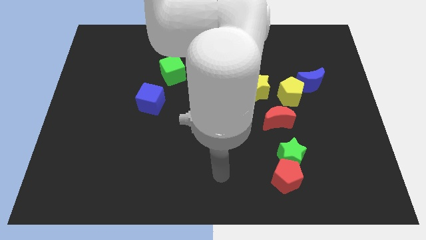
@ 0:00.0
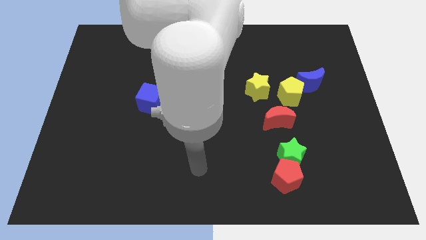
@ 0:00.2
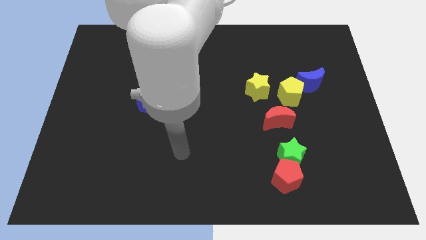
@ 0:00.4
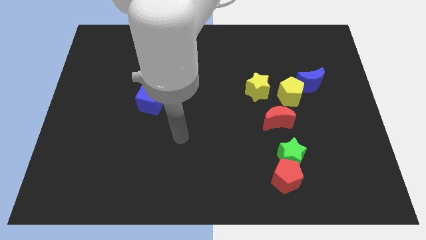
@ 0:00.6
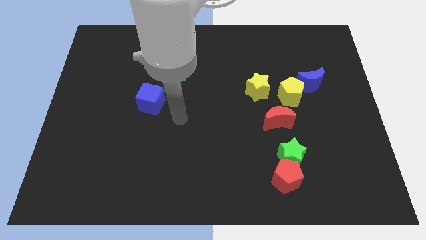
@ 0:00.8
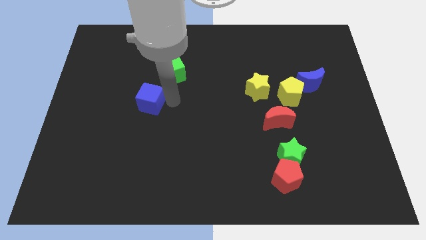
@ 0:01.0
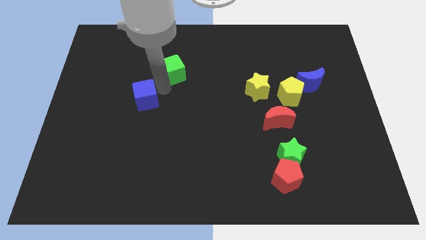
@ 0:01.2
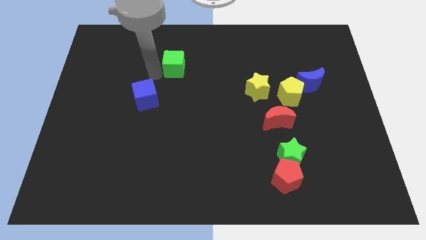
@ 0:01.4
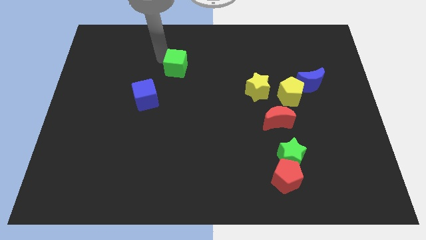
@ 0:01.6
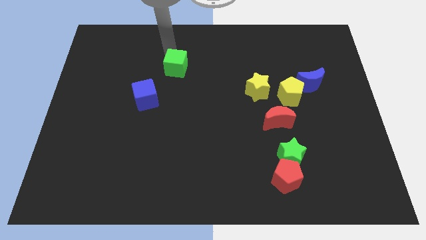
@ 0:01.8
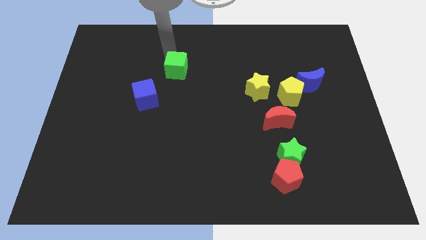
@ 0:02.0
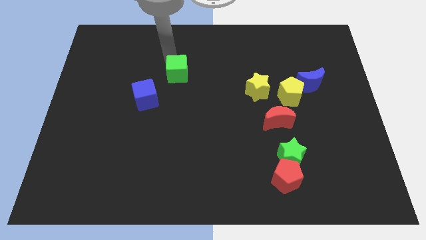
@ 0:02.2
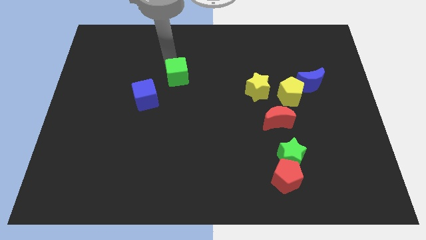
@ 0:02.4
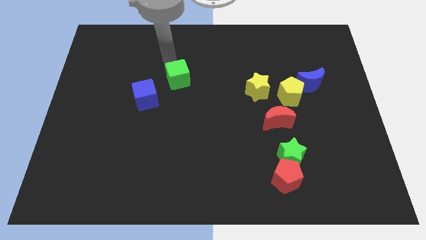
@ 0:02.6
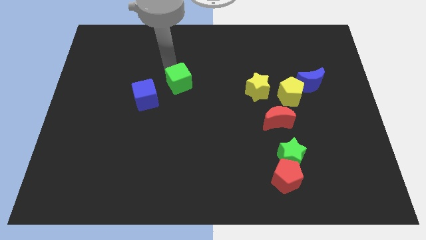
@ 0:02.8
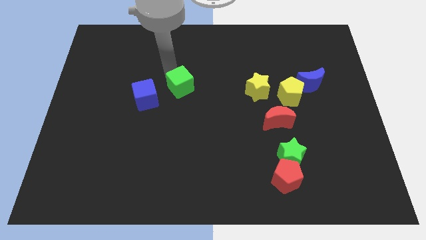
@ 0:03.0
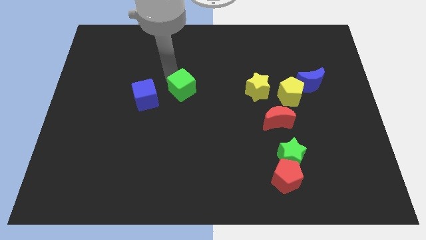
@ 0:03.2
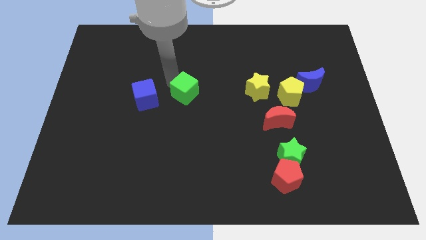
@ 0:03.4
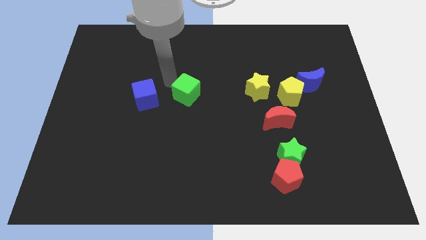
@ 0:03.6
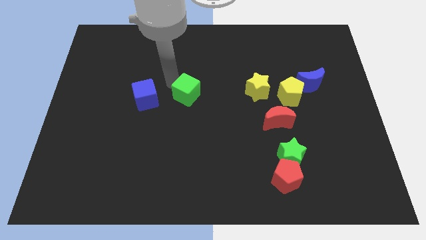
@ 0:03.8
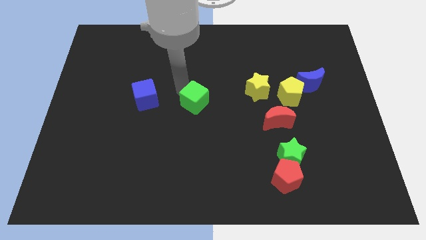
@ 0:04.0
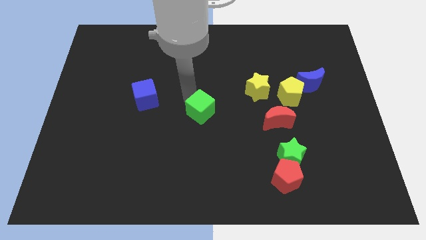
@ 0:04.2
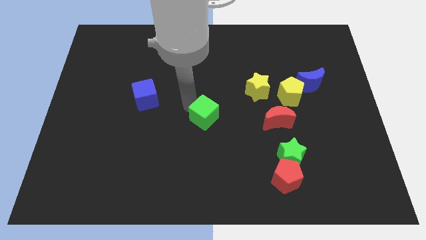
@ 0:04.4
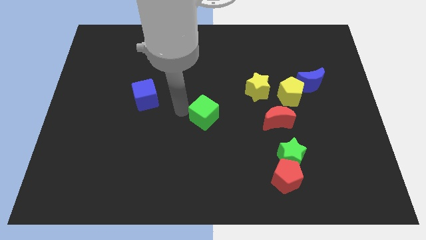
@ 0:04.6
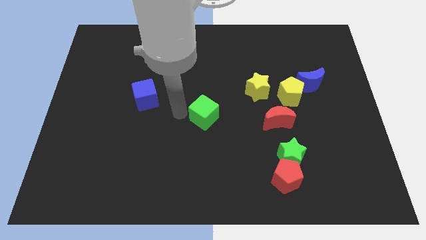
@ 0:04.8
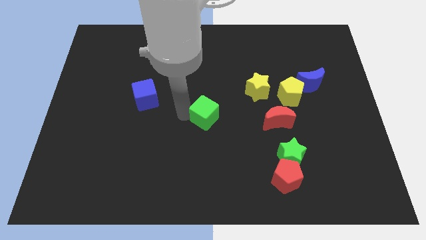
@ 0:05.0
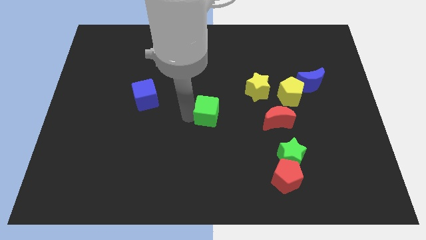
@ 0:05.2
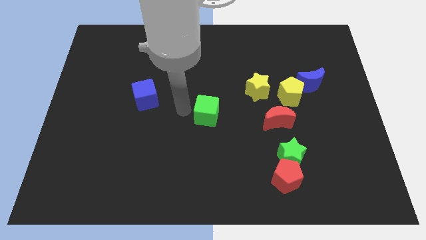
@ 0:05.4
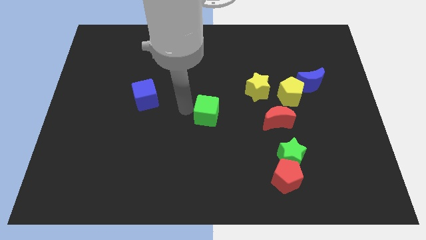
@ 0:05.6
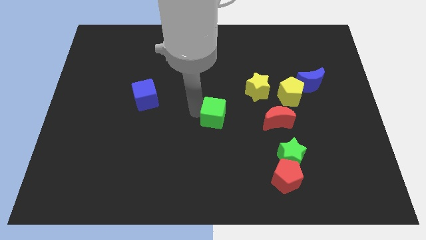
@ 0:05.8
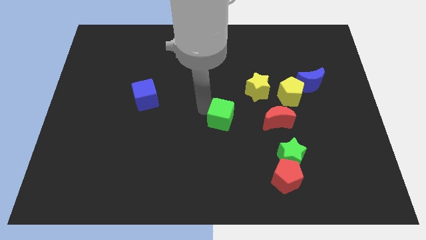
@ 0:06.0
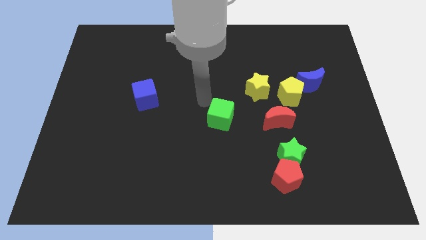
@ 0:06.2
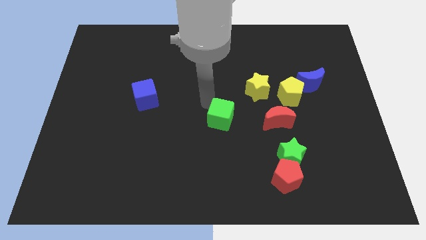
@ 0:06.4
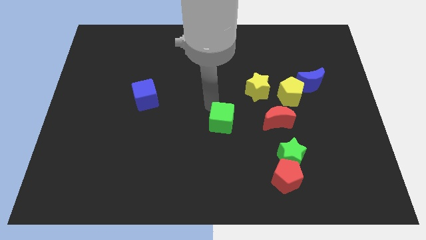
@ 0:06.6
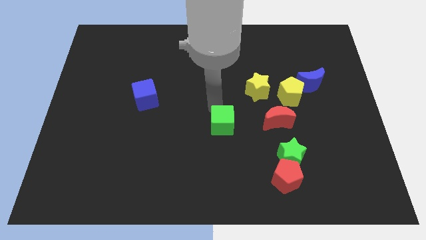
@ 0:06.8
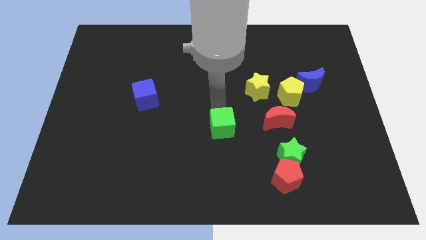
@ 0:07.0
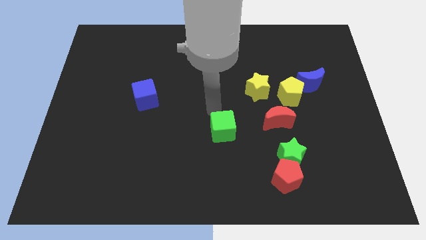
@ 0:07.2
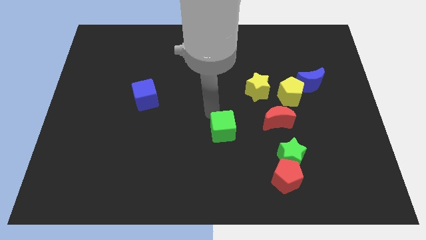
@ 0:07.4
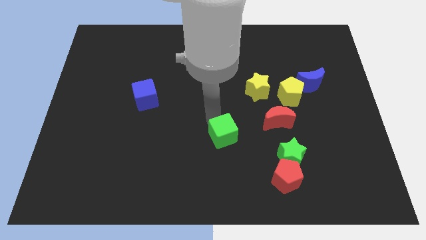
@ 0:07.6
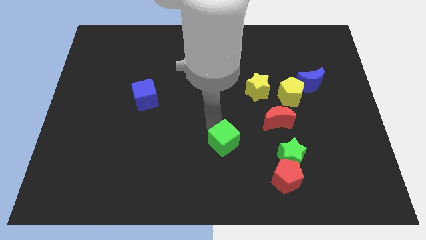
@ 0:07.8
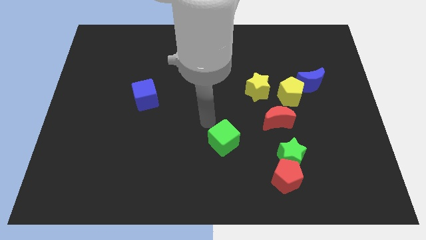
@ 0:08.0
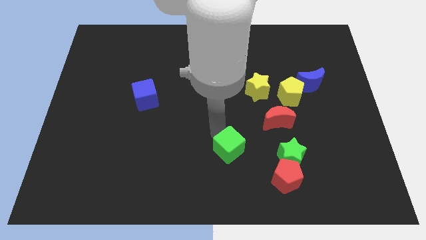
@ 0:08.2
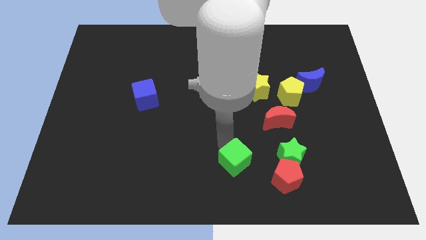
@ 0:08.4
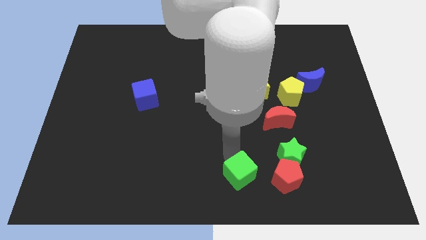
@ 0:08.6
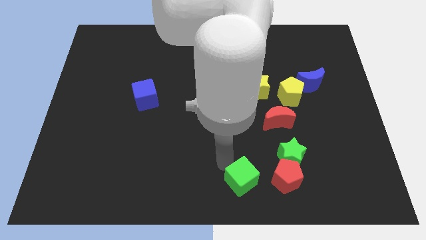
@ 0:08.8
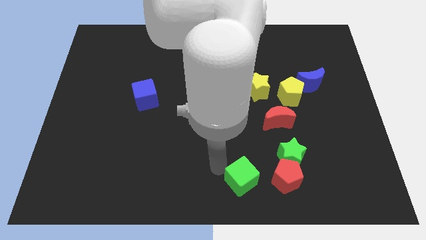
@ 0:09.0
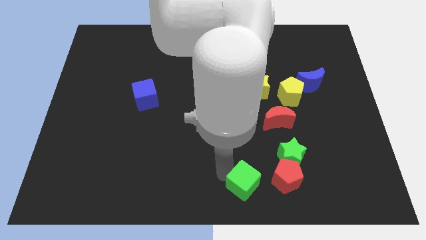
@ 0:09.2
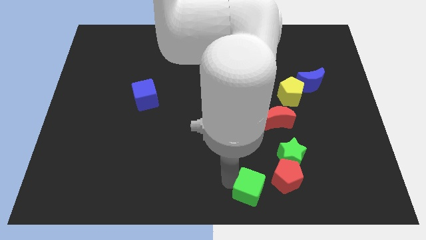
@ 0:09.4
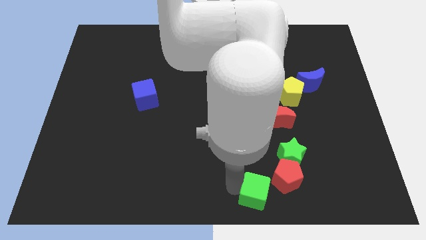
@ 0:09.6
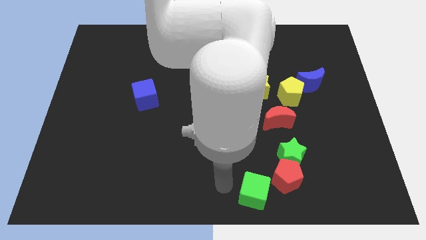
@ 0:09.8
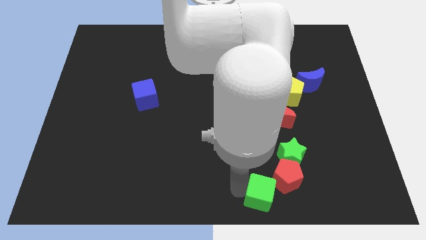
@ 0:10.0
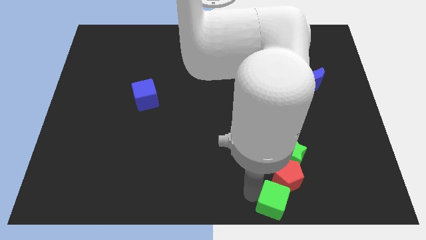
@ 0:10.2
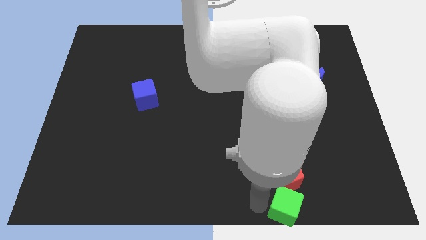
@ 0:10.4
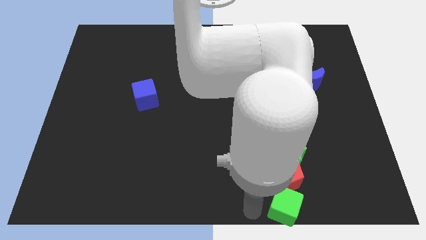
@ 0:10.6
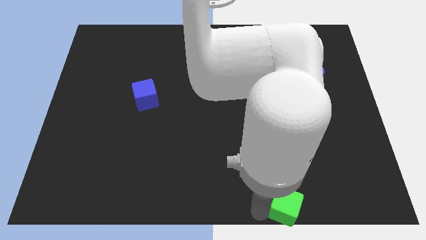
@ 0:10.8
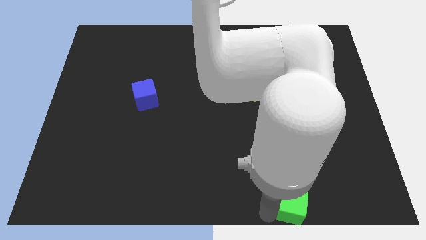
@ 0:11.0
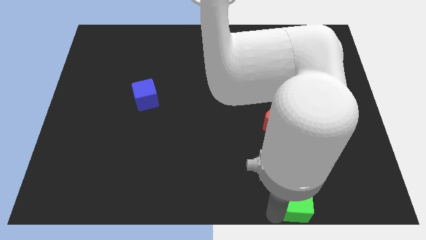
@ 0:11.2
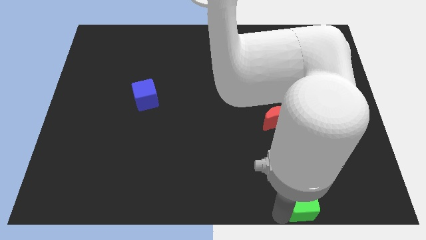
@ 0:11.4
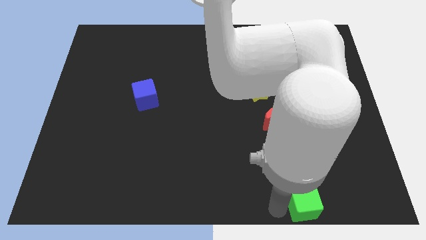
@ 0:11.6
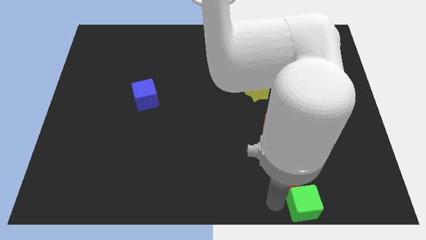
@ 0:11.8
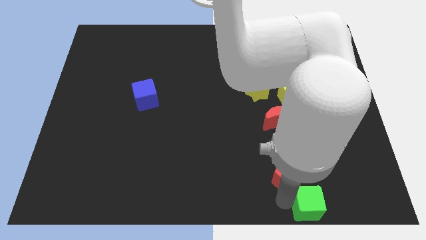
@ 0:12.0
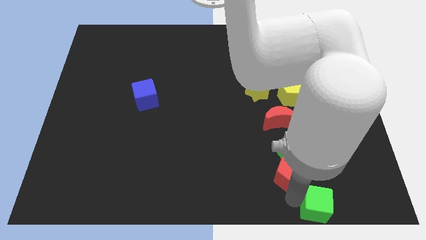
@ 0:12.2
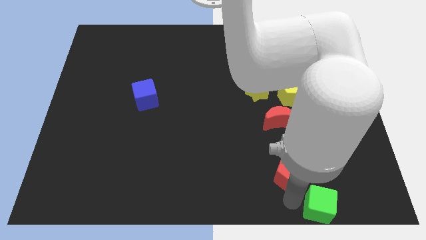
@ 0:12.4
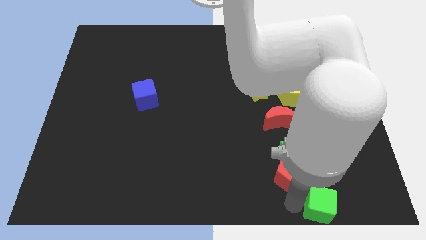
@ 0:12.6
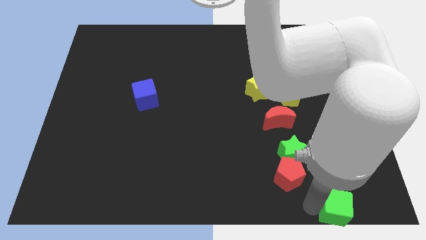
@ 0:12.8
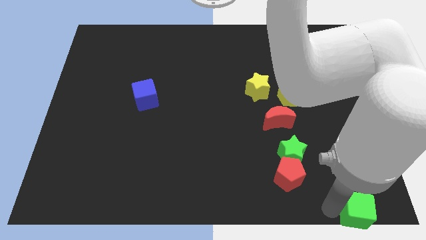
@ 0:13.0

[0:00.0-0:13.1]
put the green cube to the bottom right corner
